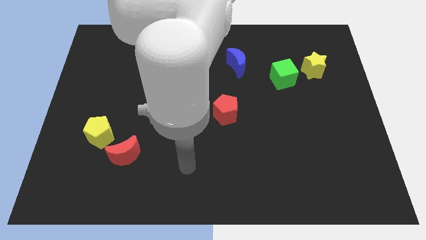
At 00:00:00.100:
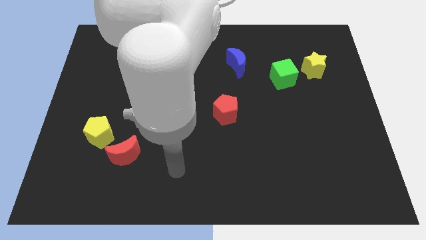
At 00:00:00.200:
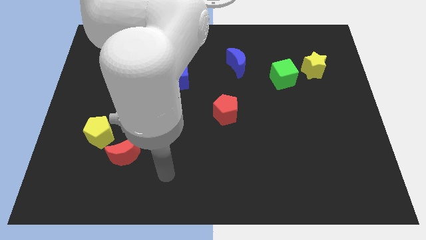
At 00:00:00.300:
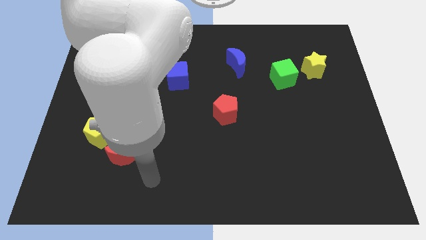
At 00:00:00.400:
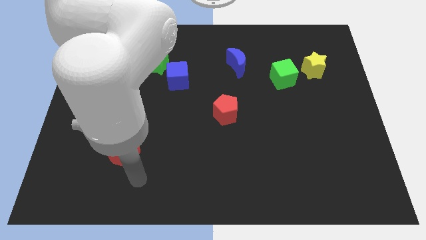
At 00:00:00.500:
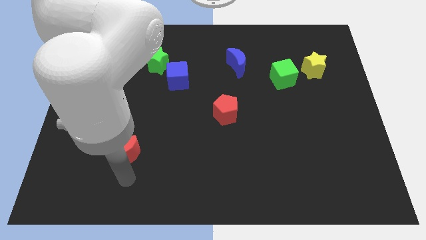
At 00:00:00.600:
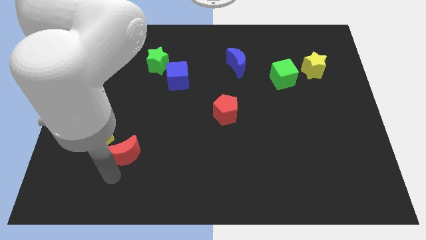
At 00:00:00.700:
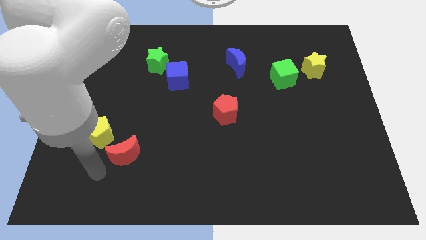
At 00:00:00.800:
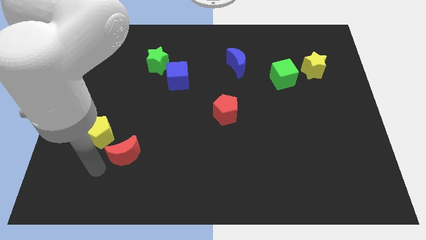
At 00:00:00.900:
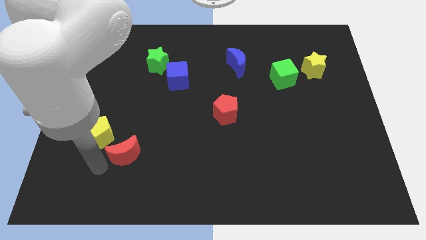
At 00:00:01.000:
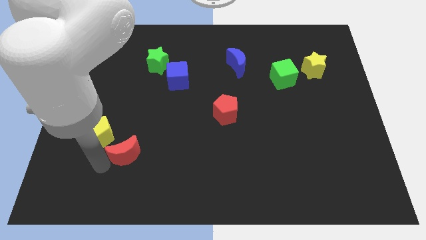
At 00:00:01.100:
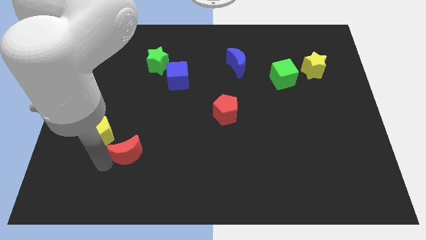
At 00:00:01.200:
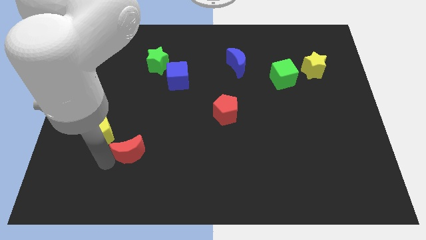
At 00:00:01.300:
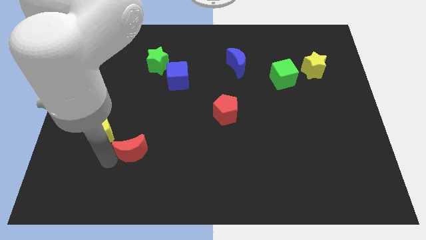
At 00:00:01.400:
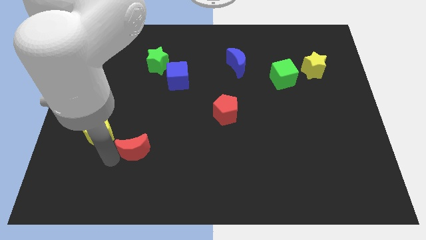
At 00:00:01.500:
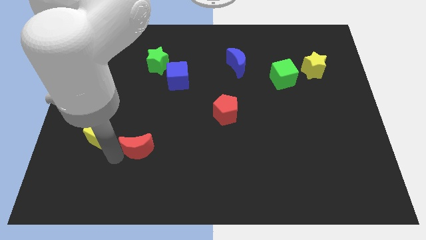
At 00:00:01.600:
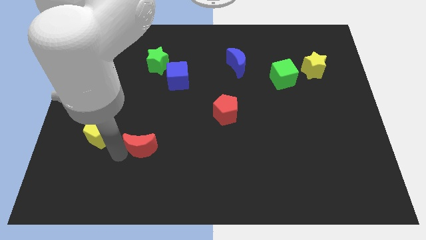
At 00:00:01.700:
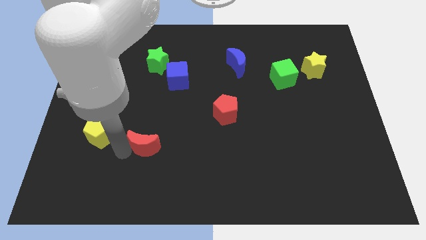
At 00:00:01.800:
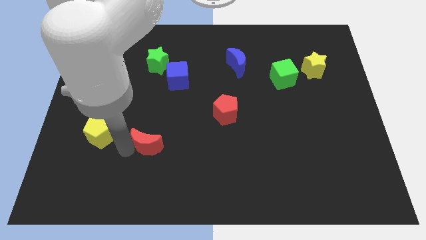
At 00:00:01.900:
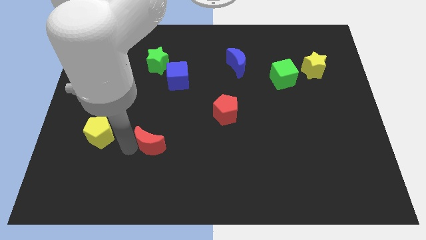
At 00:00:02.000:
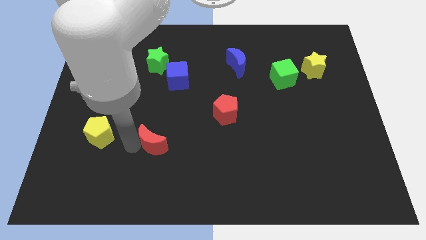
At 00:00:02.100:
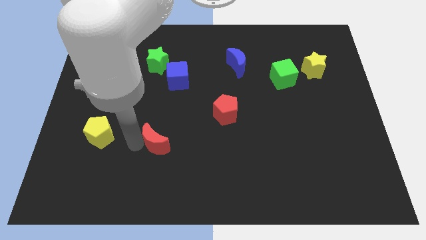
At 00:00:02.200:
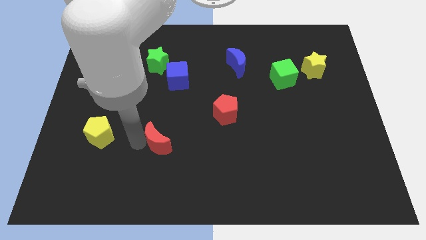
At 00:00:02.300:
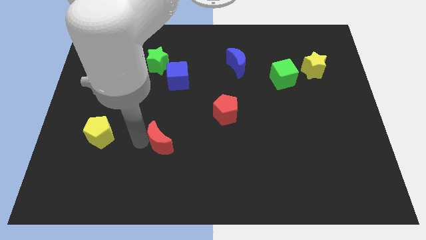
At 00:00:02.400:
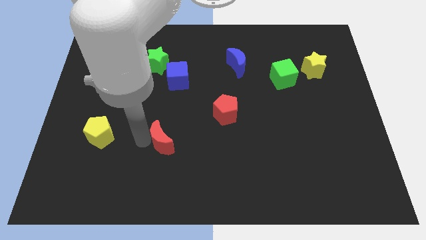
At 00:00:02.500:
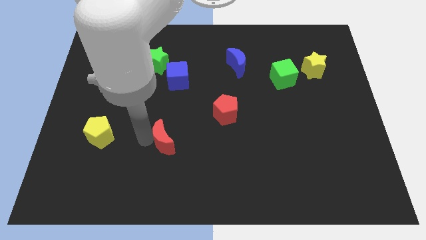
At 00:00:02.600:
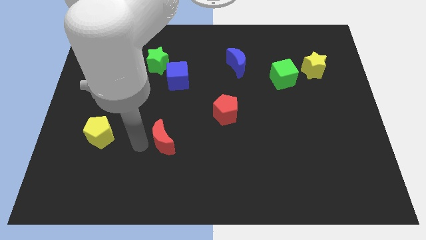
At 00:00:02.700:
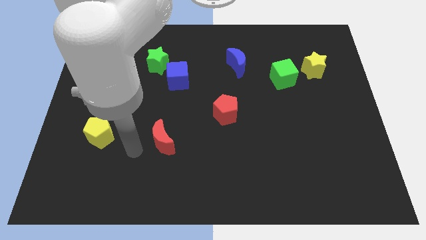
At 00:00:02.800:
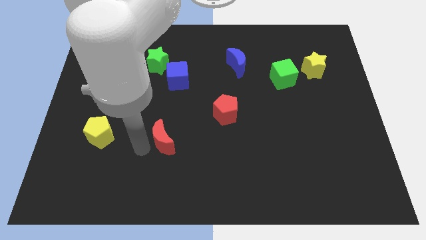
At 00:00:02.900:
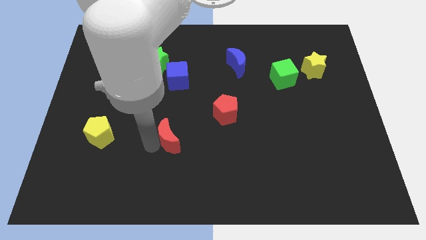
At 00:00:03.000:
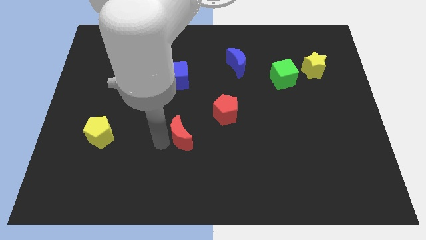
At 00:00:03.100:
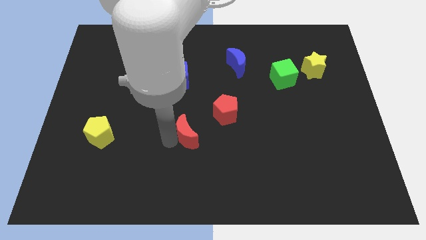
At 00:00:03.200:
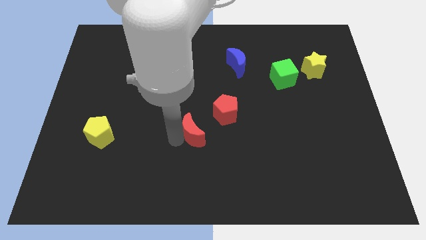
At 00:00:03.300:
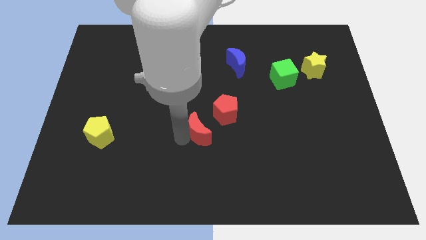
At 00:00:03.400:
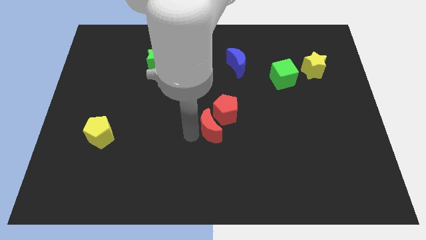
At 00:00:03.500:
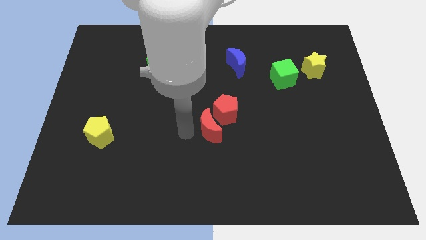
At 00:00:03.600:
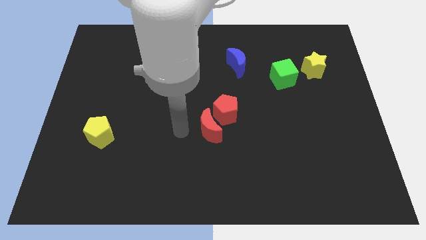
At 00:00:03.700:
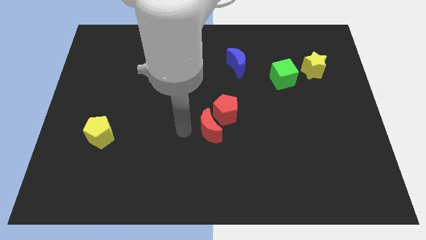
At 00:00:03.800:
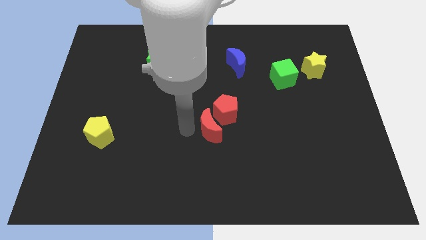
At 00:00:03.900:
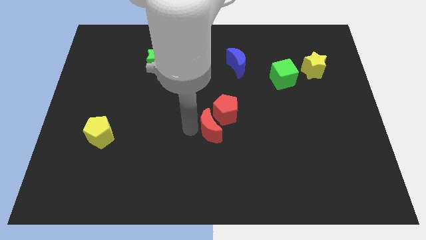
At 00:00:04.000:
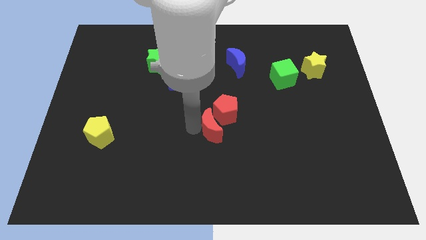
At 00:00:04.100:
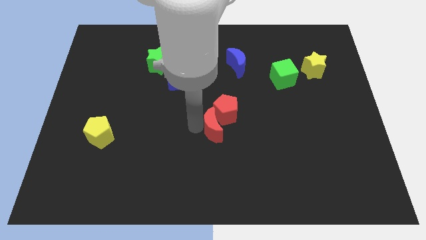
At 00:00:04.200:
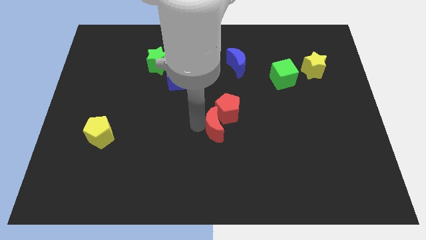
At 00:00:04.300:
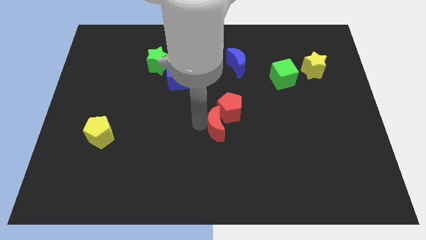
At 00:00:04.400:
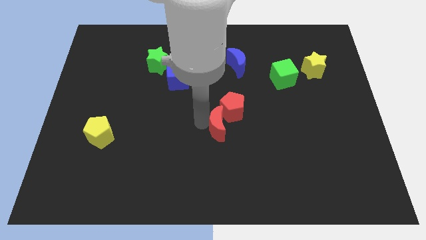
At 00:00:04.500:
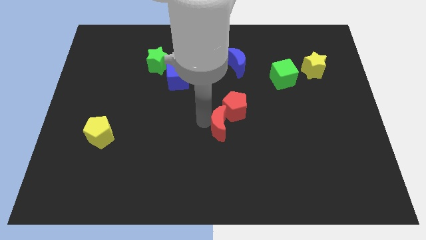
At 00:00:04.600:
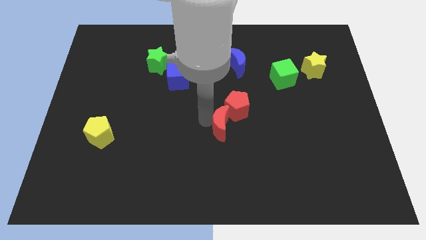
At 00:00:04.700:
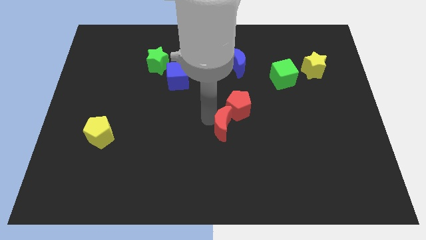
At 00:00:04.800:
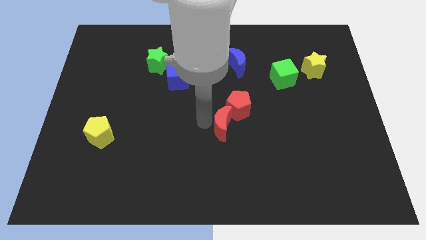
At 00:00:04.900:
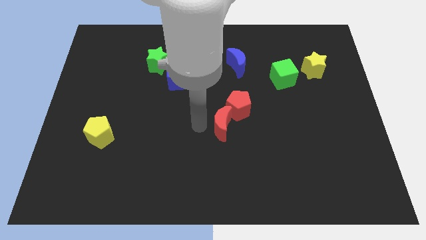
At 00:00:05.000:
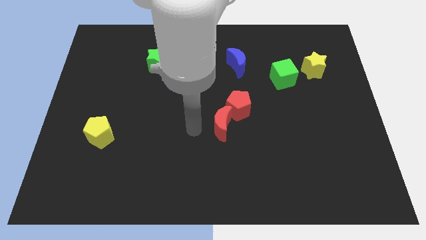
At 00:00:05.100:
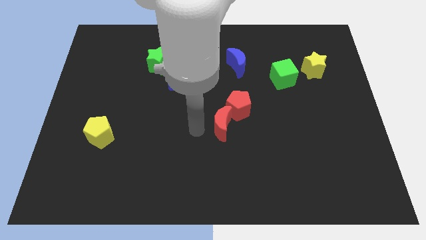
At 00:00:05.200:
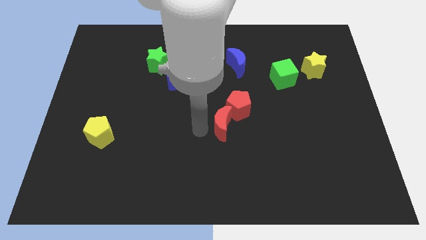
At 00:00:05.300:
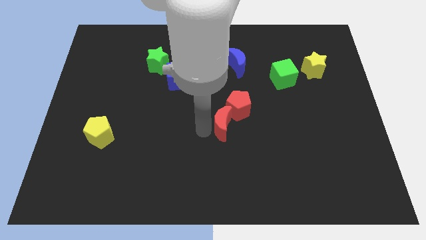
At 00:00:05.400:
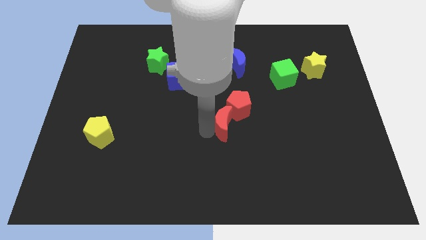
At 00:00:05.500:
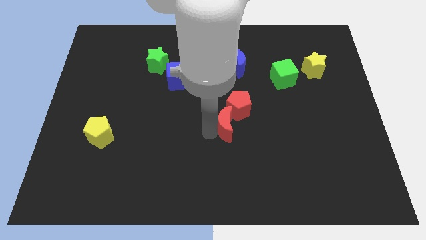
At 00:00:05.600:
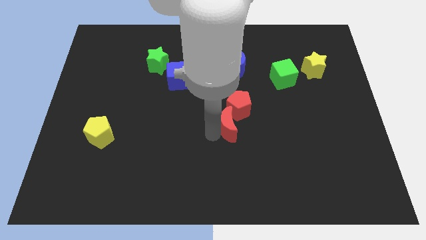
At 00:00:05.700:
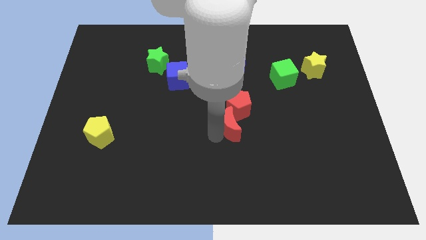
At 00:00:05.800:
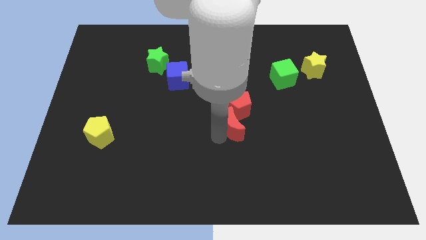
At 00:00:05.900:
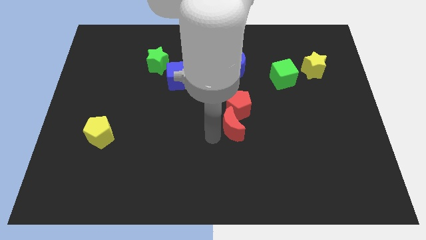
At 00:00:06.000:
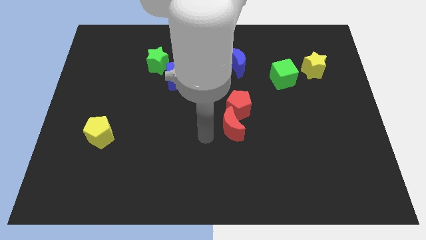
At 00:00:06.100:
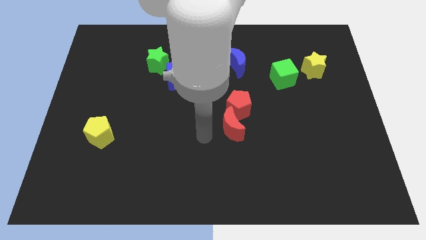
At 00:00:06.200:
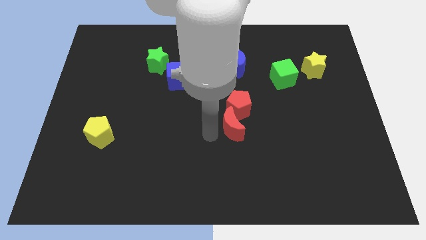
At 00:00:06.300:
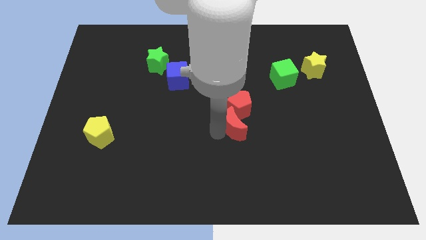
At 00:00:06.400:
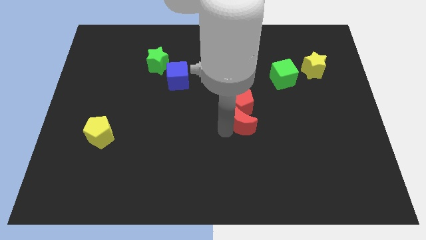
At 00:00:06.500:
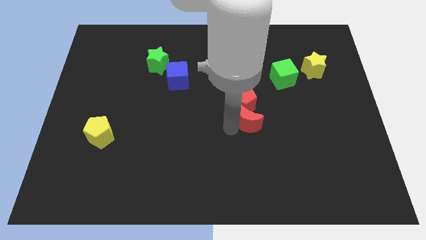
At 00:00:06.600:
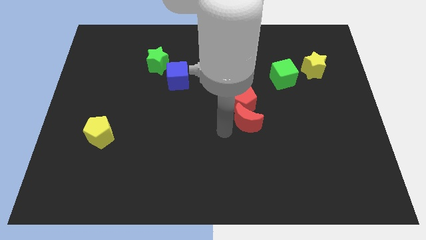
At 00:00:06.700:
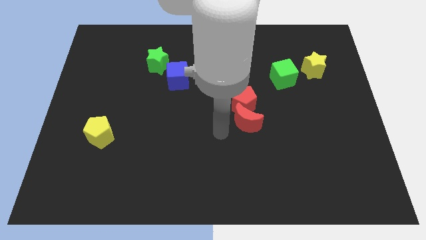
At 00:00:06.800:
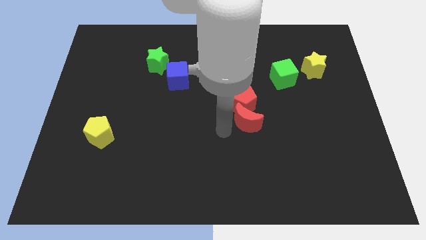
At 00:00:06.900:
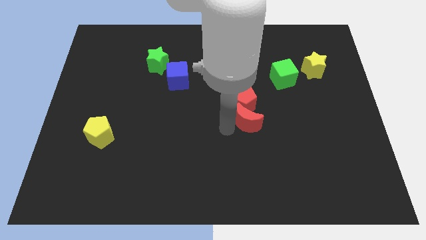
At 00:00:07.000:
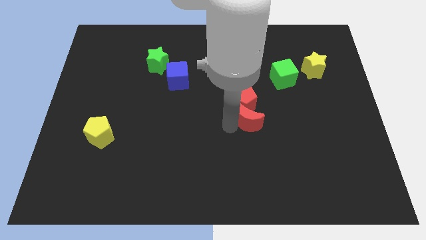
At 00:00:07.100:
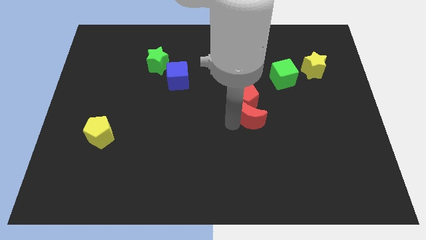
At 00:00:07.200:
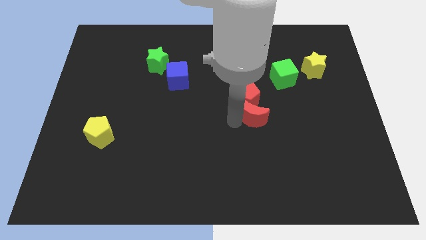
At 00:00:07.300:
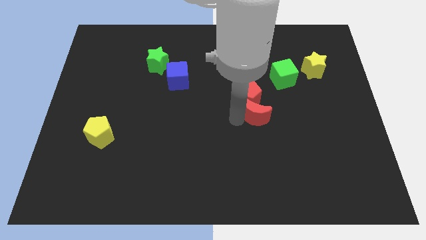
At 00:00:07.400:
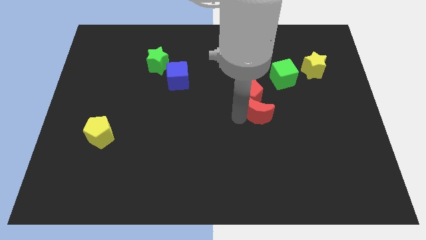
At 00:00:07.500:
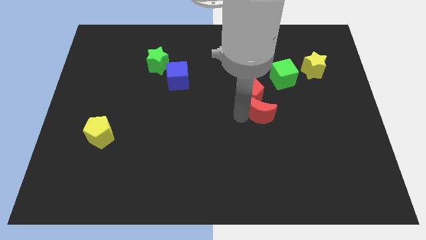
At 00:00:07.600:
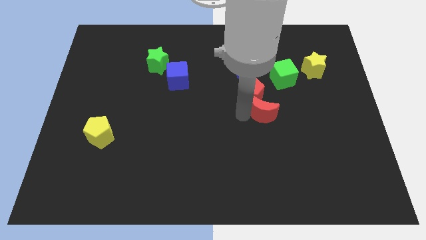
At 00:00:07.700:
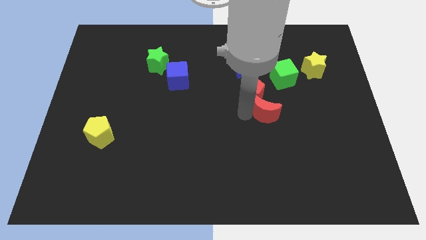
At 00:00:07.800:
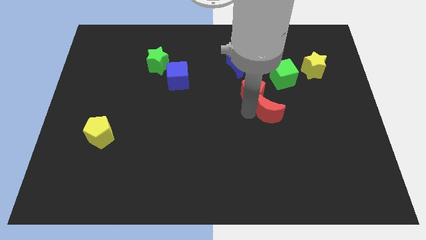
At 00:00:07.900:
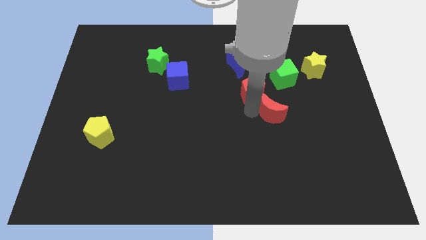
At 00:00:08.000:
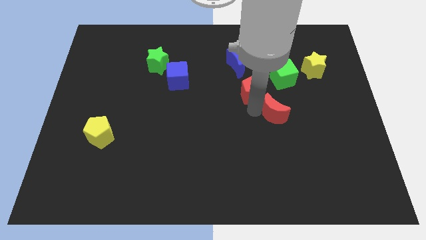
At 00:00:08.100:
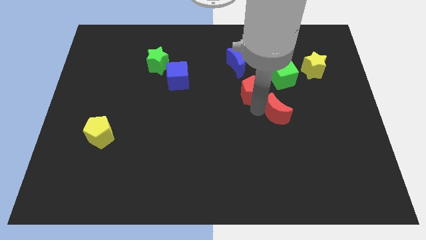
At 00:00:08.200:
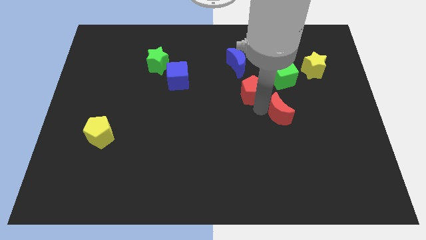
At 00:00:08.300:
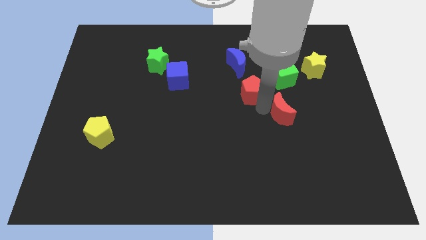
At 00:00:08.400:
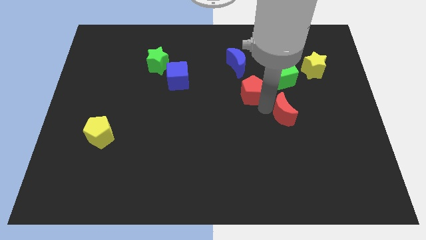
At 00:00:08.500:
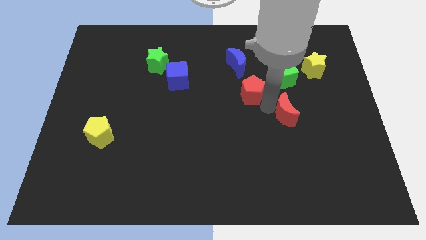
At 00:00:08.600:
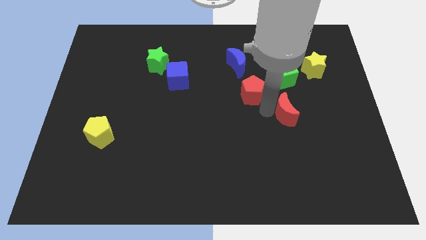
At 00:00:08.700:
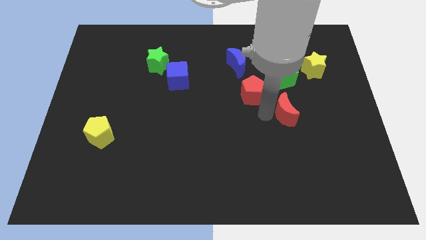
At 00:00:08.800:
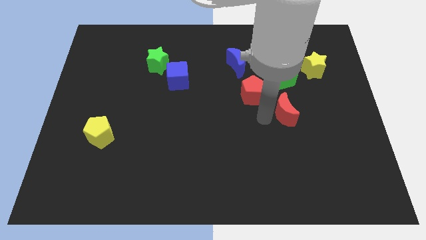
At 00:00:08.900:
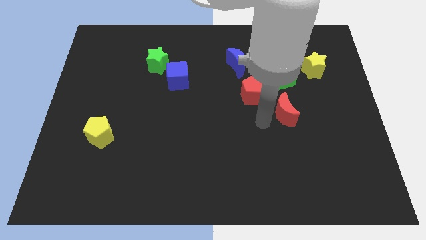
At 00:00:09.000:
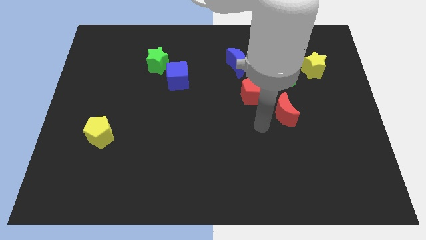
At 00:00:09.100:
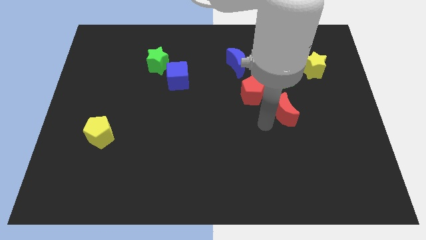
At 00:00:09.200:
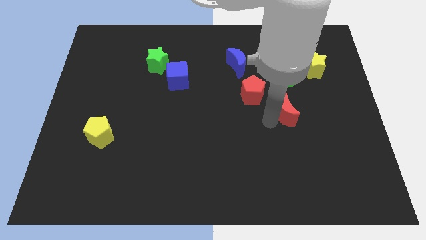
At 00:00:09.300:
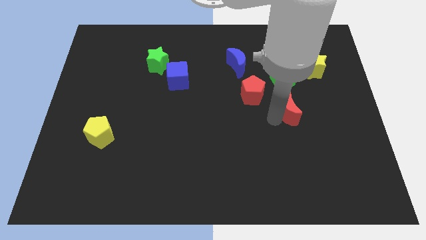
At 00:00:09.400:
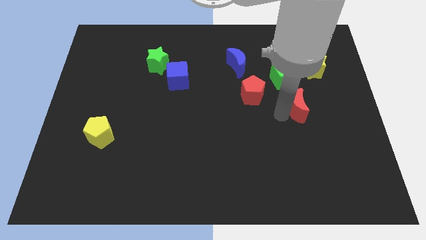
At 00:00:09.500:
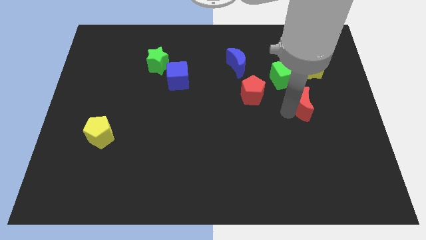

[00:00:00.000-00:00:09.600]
push the red moon to the bottom side of the yellow star
